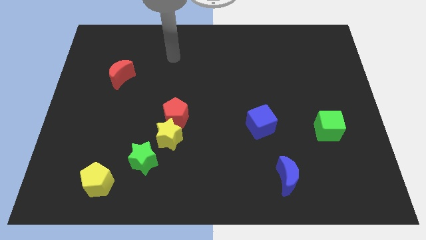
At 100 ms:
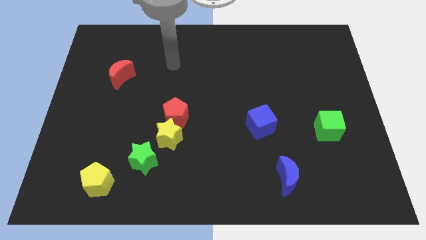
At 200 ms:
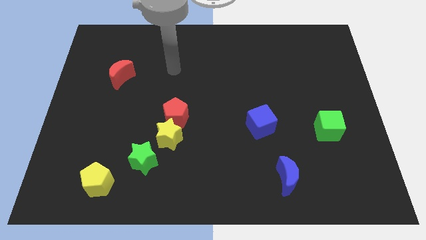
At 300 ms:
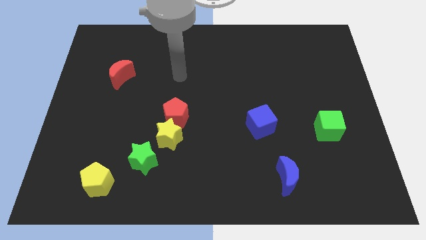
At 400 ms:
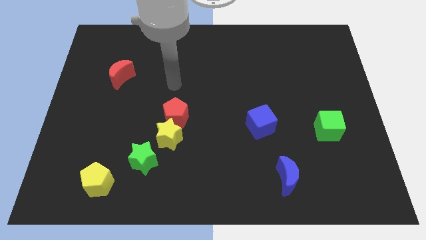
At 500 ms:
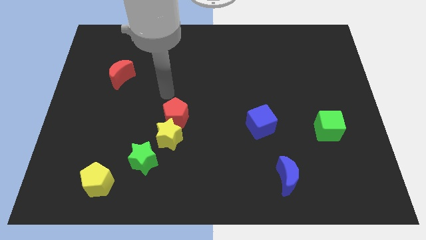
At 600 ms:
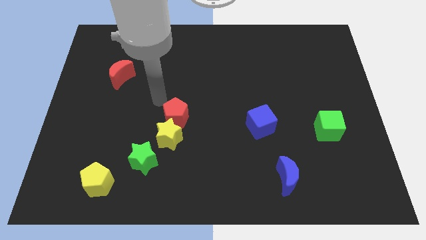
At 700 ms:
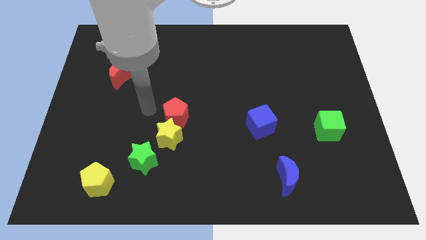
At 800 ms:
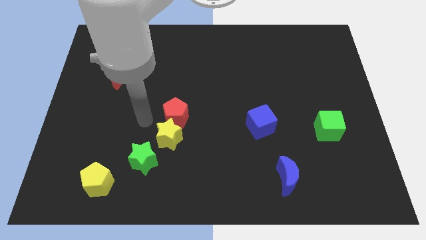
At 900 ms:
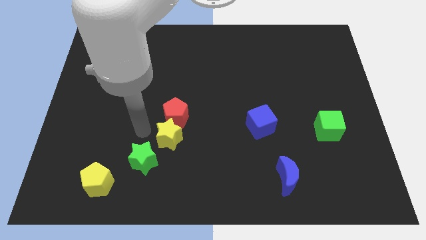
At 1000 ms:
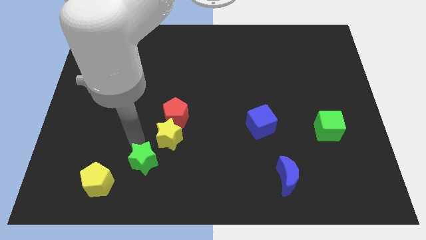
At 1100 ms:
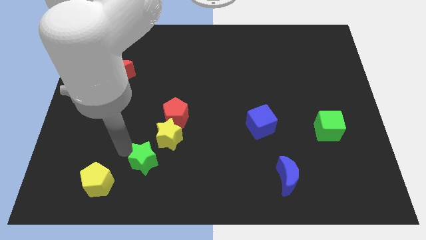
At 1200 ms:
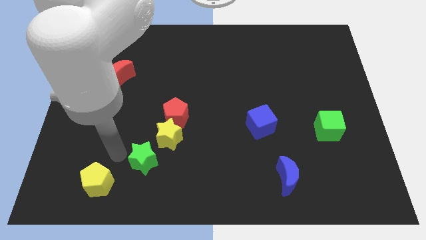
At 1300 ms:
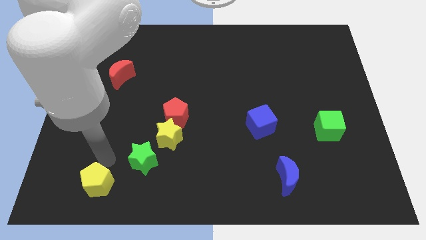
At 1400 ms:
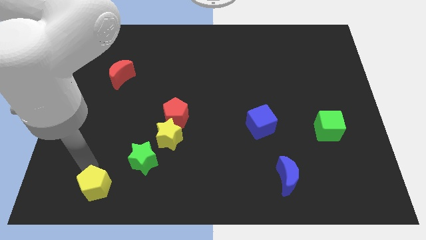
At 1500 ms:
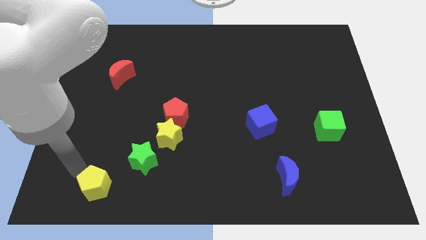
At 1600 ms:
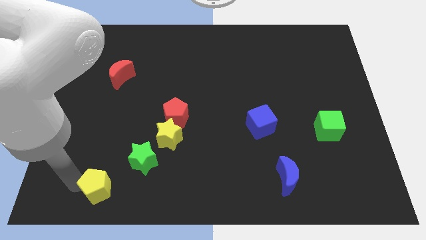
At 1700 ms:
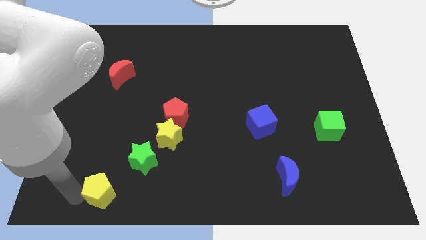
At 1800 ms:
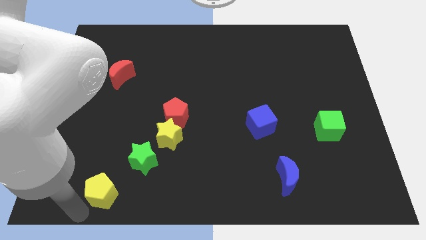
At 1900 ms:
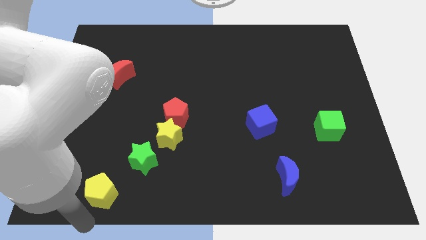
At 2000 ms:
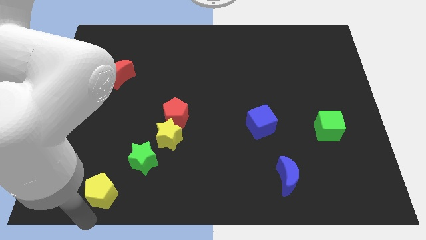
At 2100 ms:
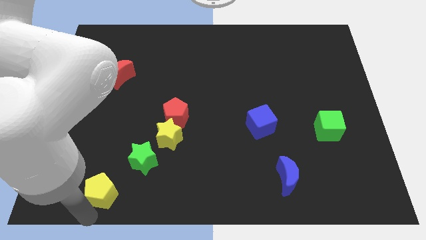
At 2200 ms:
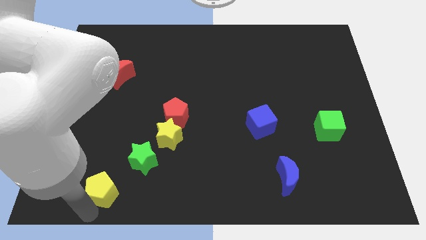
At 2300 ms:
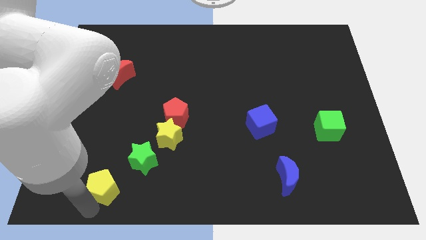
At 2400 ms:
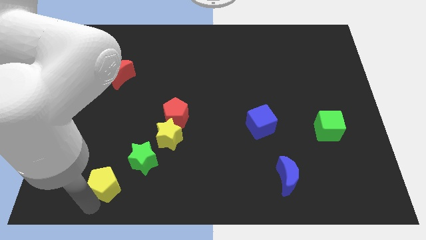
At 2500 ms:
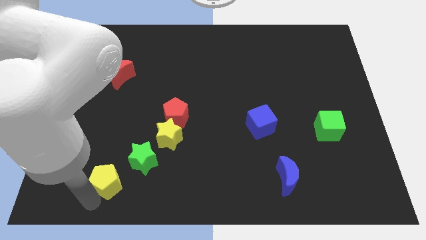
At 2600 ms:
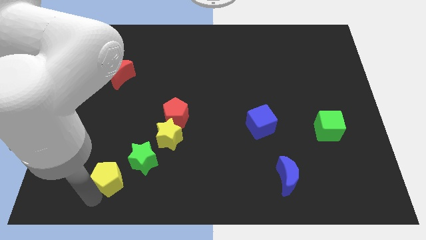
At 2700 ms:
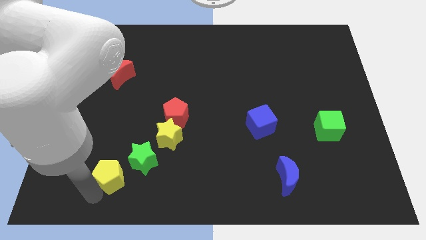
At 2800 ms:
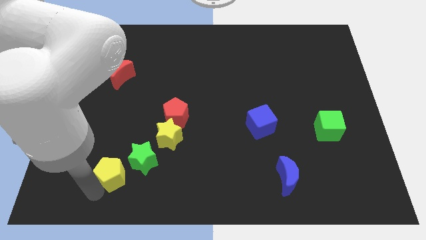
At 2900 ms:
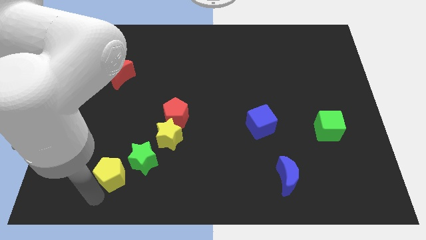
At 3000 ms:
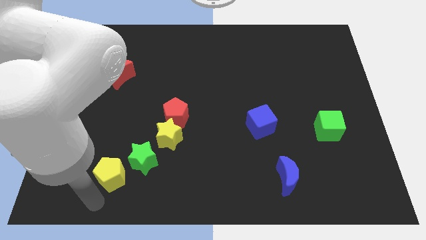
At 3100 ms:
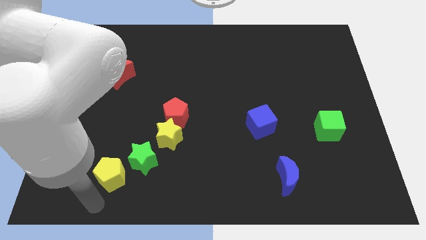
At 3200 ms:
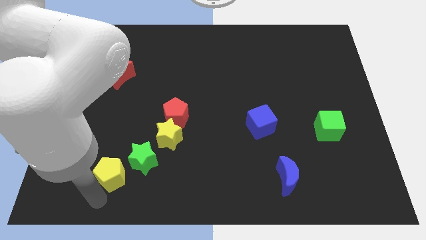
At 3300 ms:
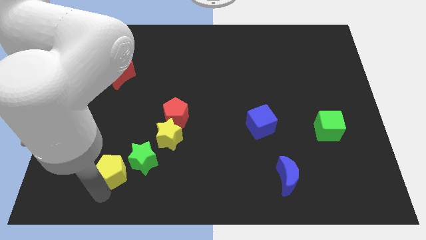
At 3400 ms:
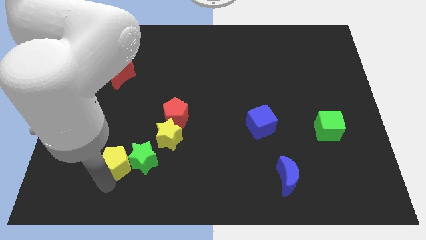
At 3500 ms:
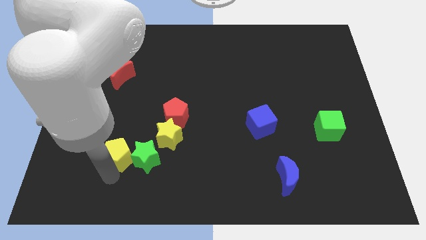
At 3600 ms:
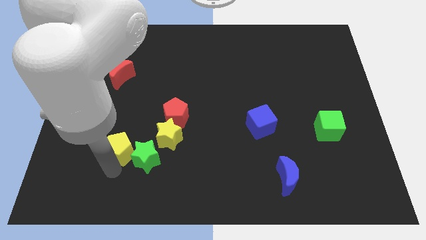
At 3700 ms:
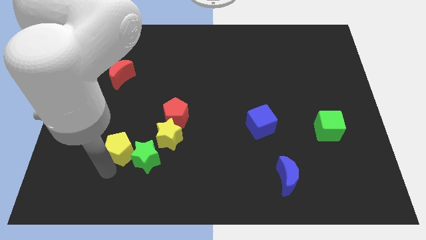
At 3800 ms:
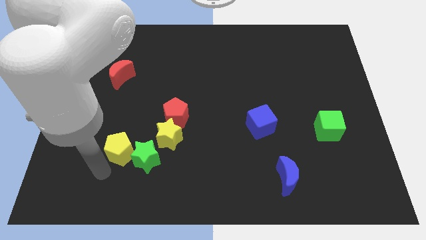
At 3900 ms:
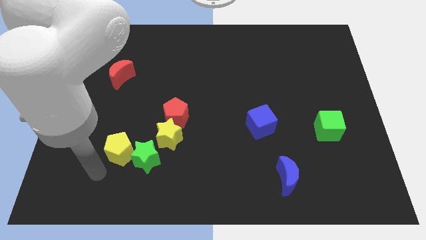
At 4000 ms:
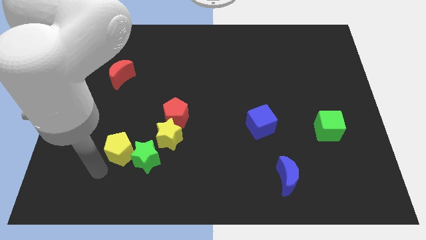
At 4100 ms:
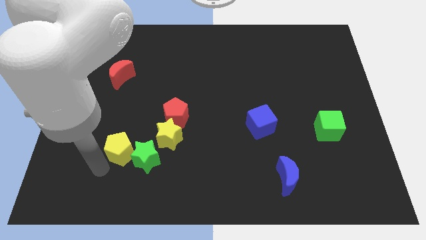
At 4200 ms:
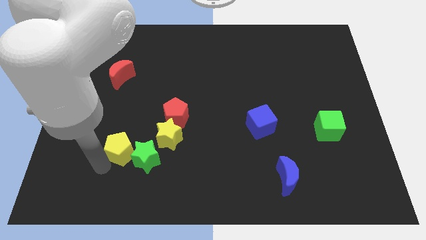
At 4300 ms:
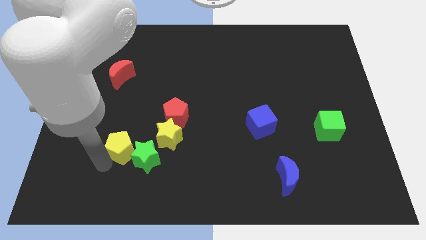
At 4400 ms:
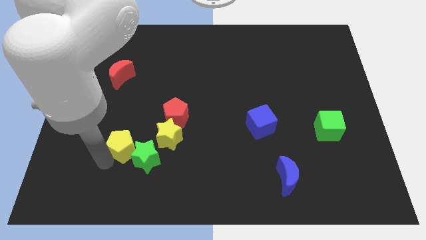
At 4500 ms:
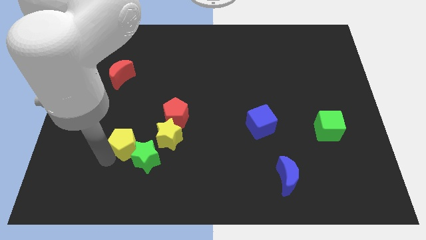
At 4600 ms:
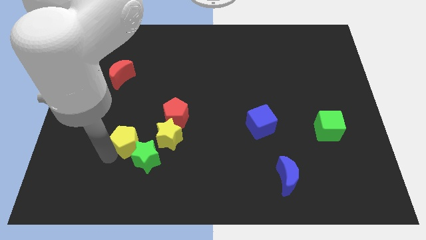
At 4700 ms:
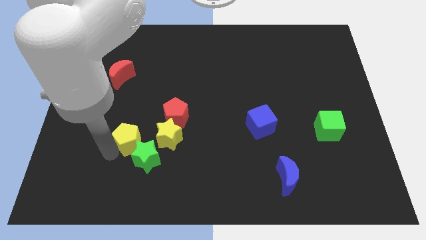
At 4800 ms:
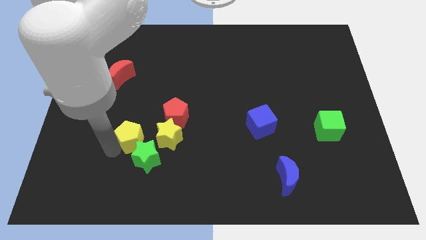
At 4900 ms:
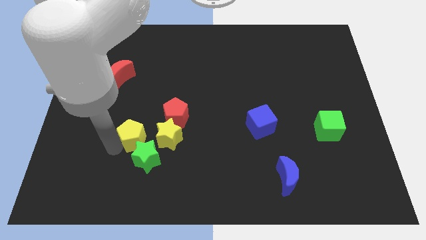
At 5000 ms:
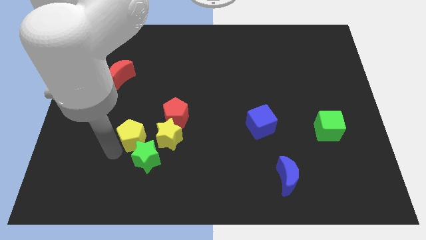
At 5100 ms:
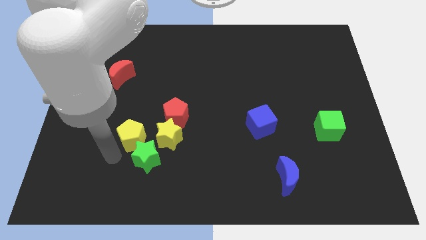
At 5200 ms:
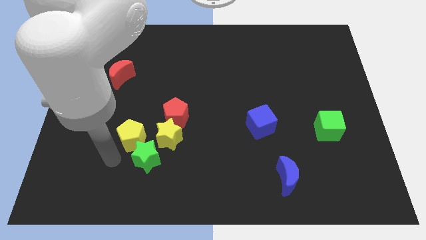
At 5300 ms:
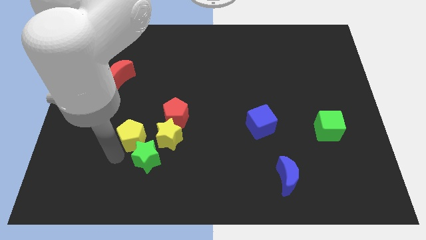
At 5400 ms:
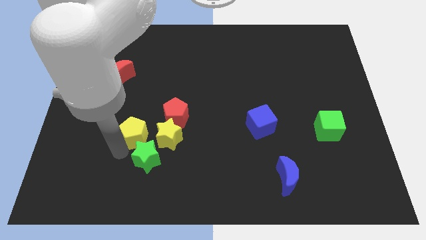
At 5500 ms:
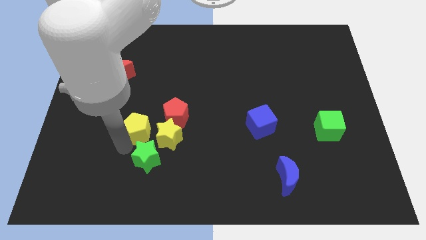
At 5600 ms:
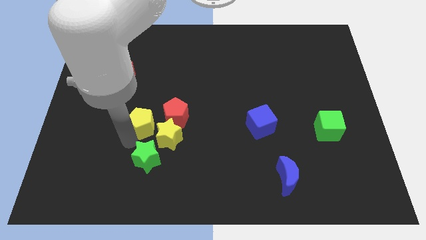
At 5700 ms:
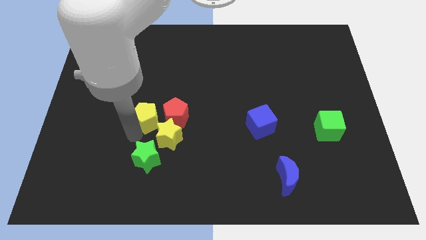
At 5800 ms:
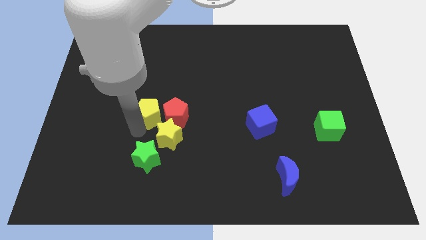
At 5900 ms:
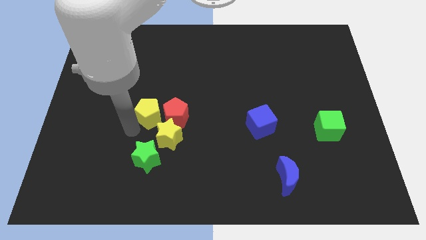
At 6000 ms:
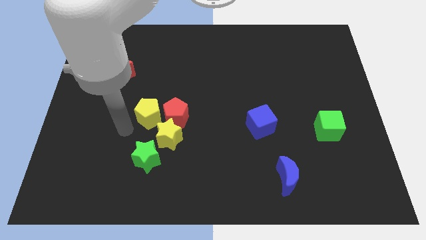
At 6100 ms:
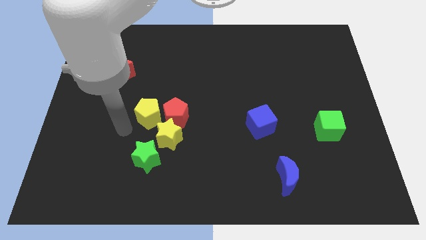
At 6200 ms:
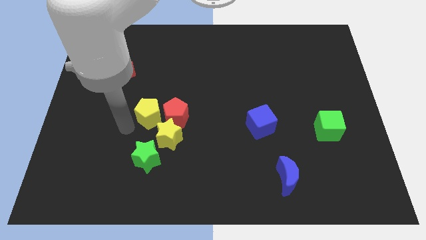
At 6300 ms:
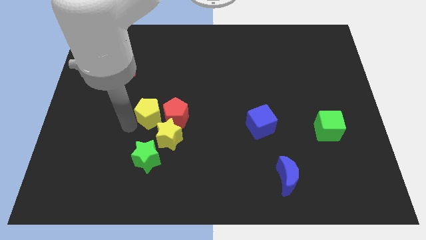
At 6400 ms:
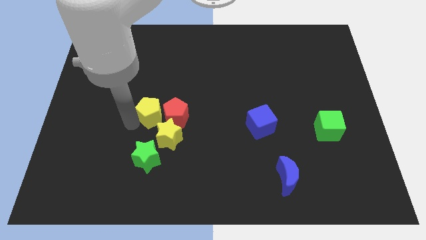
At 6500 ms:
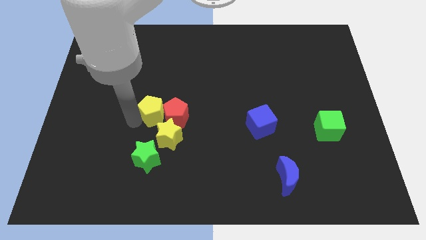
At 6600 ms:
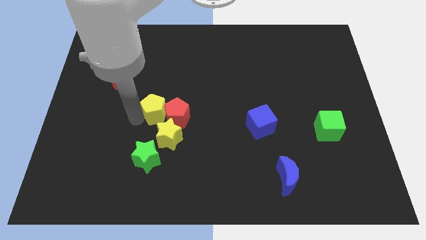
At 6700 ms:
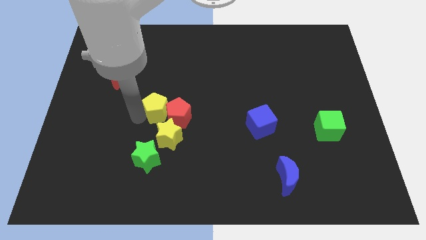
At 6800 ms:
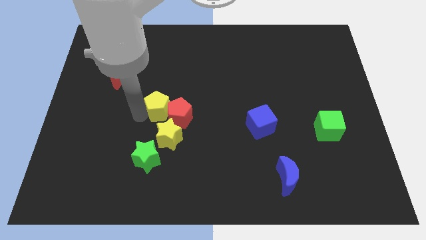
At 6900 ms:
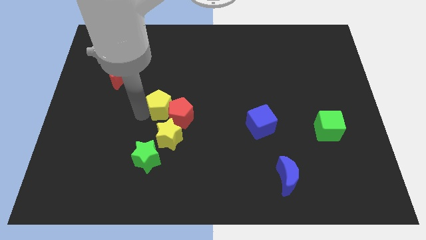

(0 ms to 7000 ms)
slide the yellow pentagon to the middle
